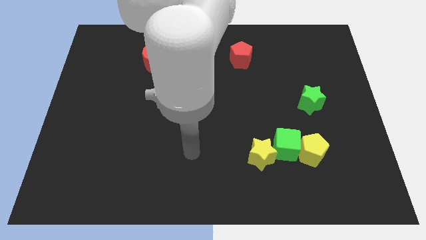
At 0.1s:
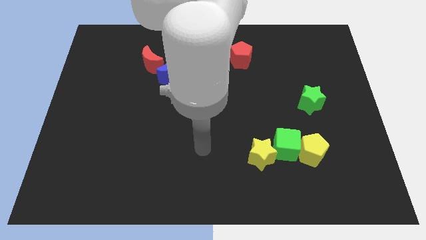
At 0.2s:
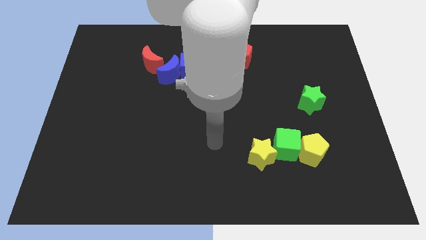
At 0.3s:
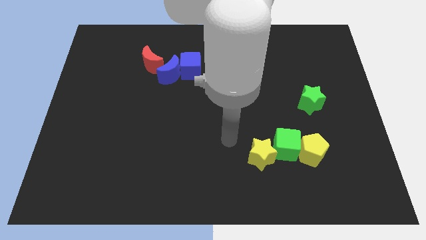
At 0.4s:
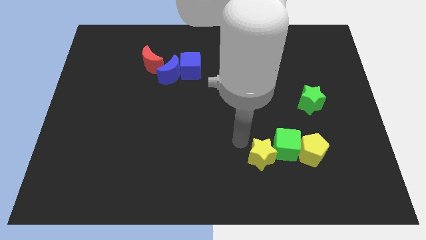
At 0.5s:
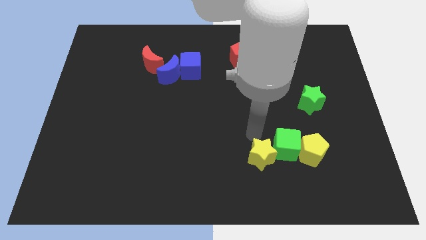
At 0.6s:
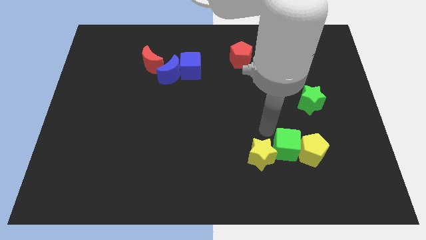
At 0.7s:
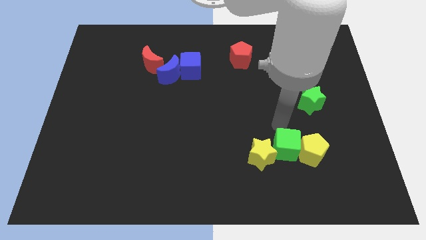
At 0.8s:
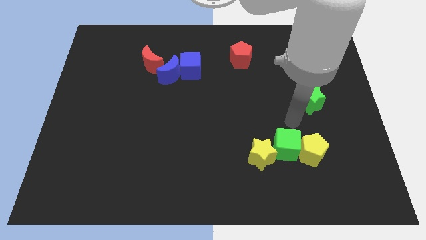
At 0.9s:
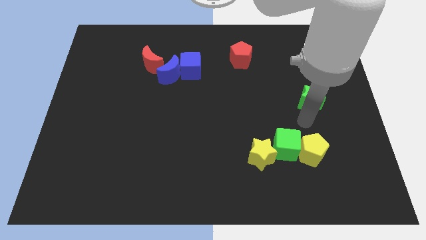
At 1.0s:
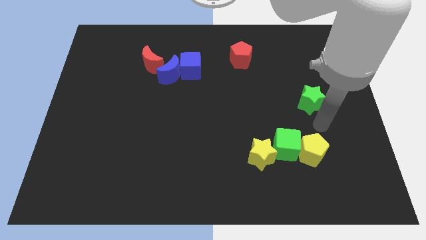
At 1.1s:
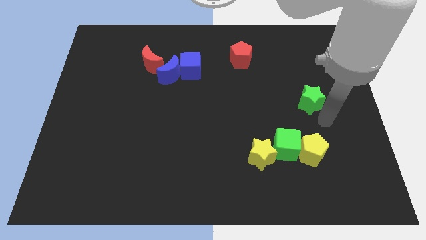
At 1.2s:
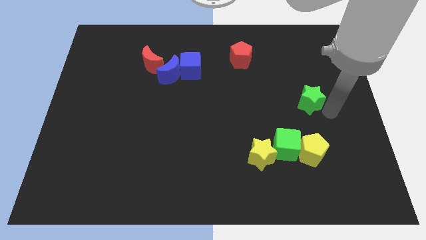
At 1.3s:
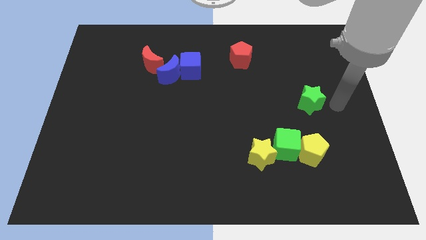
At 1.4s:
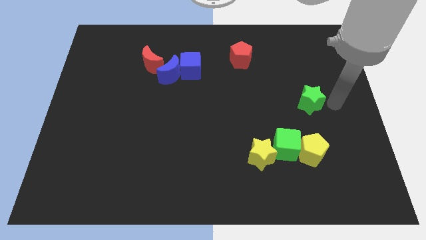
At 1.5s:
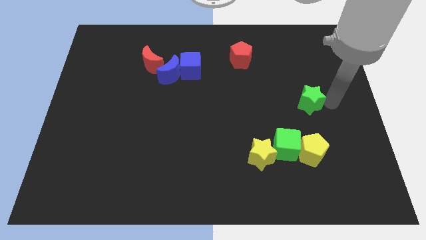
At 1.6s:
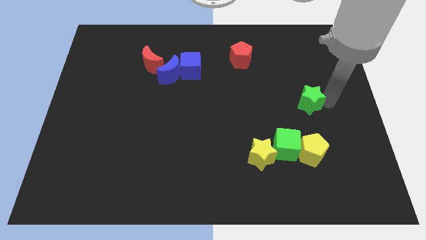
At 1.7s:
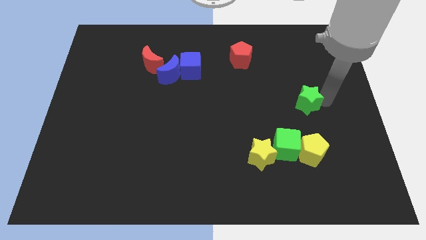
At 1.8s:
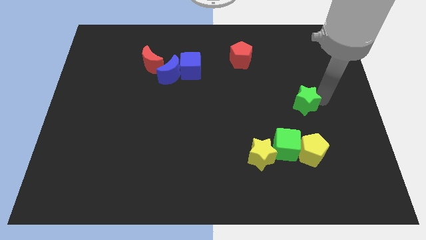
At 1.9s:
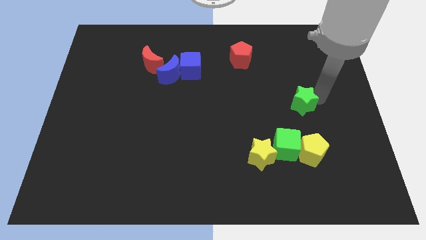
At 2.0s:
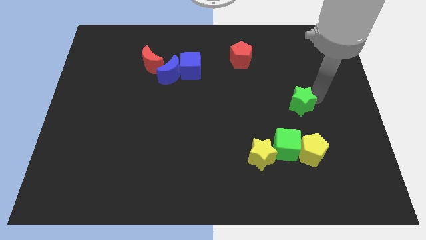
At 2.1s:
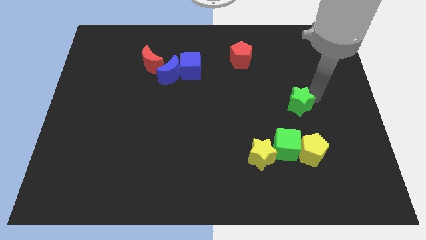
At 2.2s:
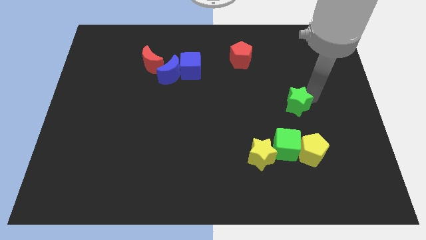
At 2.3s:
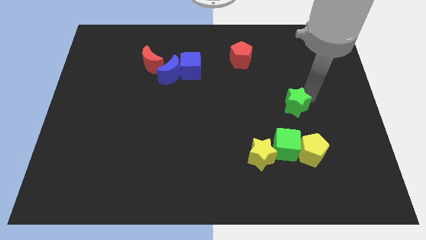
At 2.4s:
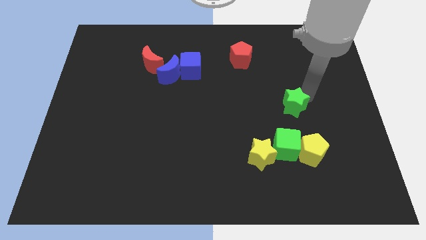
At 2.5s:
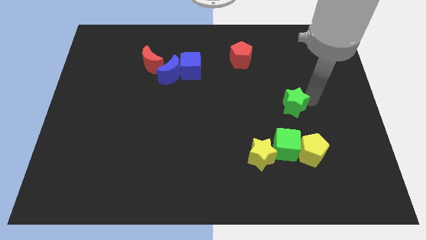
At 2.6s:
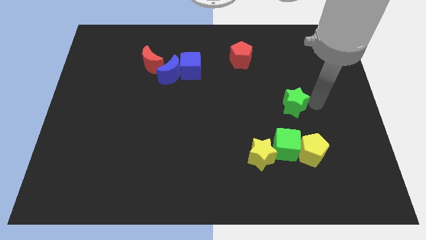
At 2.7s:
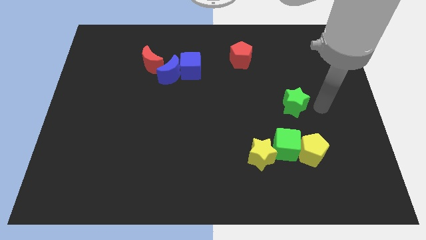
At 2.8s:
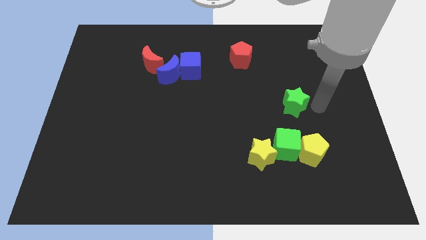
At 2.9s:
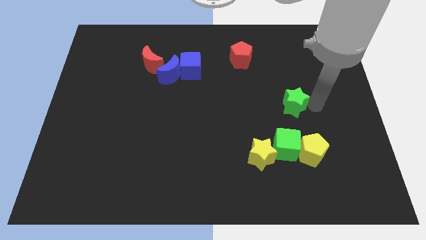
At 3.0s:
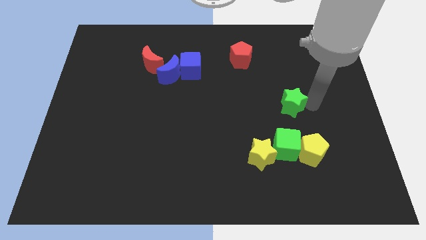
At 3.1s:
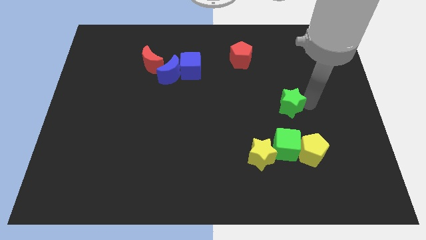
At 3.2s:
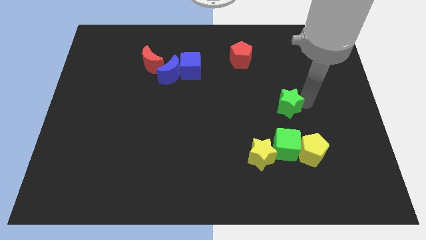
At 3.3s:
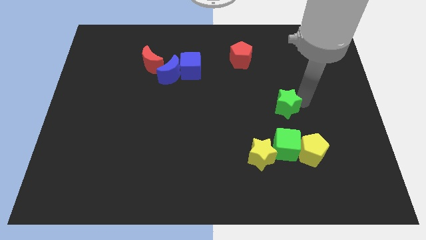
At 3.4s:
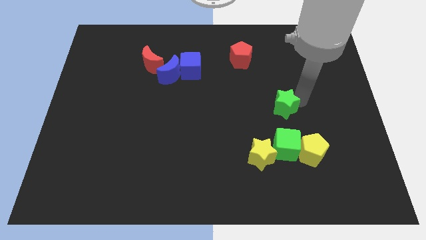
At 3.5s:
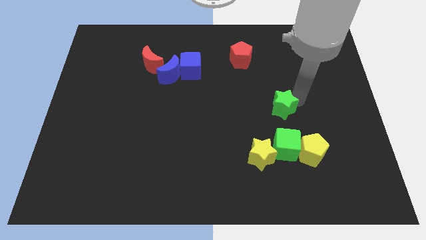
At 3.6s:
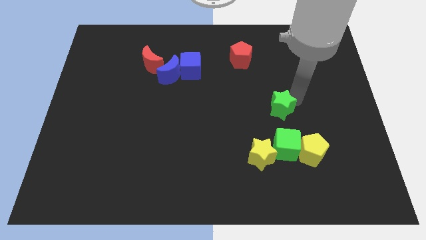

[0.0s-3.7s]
push the green star to the left somewhat

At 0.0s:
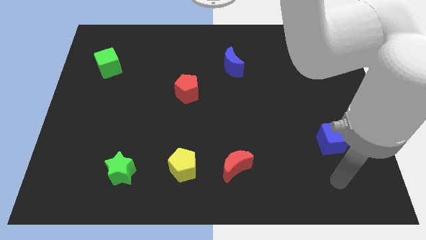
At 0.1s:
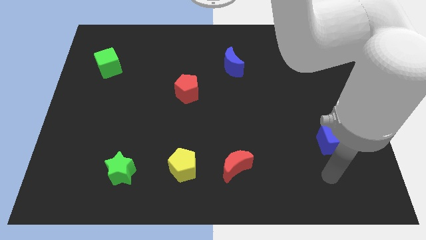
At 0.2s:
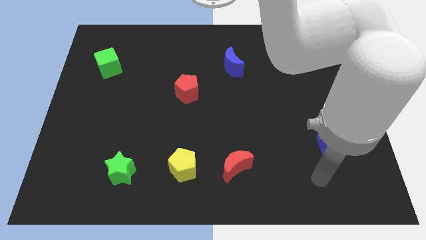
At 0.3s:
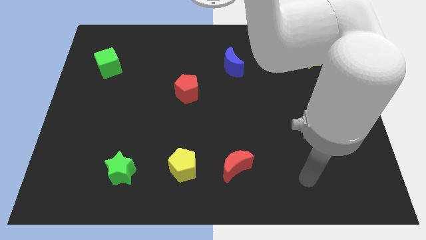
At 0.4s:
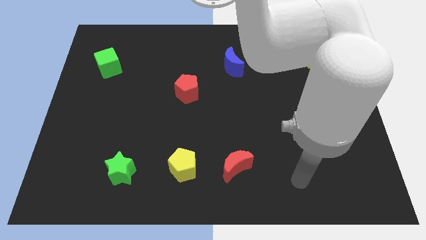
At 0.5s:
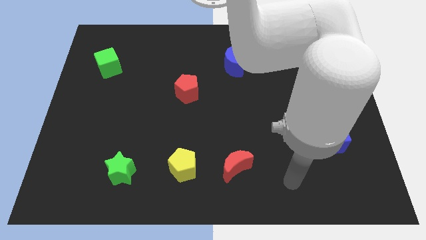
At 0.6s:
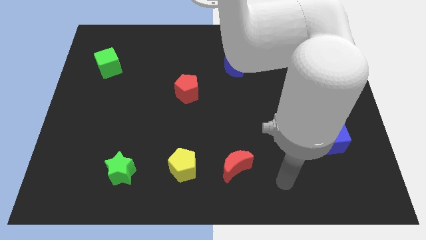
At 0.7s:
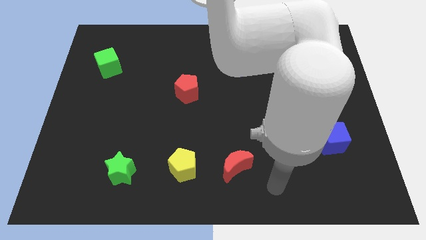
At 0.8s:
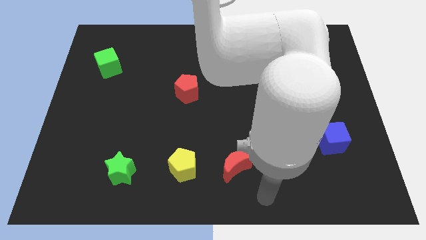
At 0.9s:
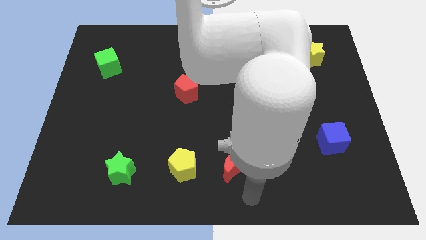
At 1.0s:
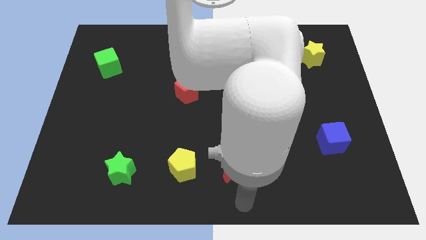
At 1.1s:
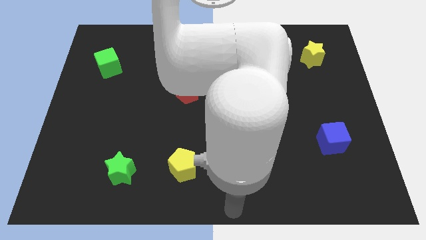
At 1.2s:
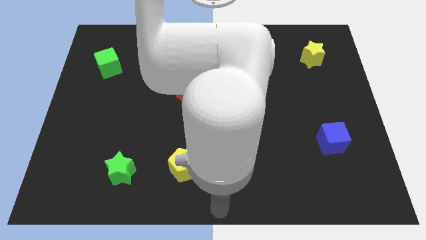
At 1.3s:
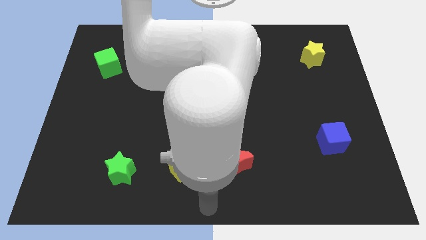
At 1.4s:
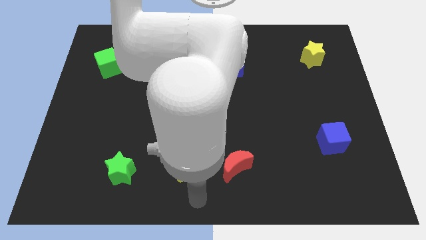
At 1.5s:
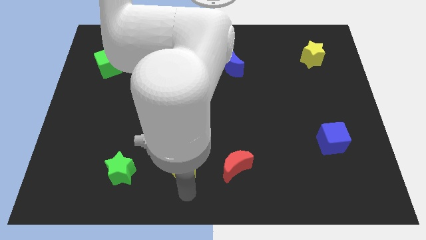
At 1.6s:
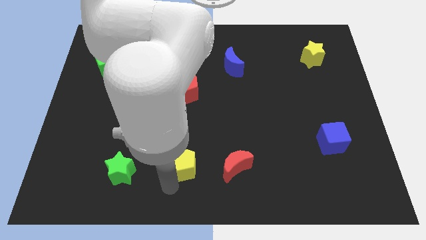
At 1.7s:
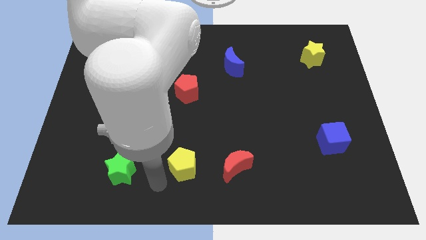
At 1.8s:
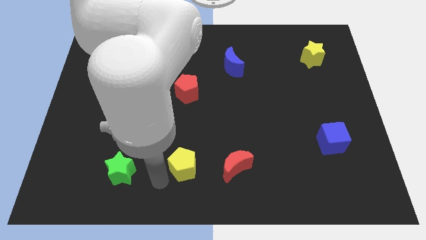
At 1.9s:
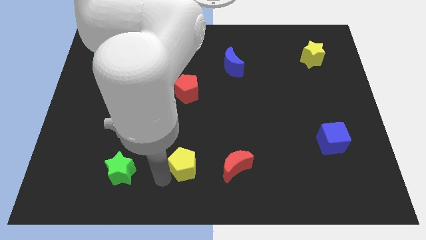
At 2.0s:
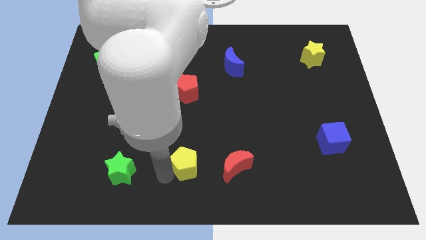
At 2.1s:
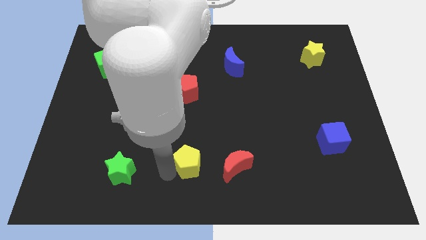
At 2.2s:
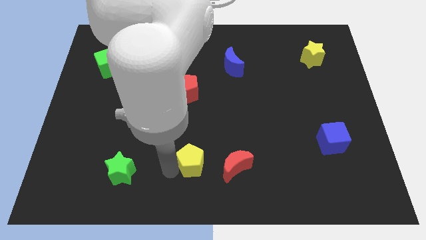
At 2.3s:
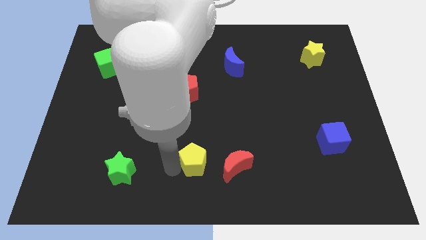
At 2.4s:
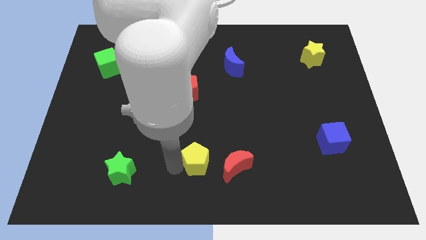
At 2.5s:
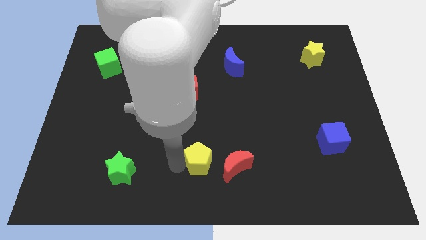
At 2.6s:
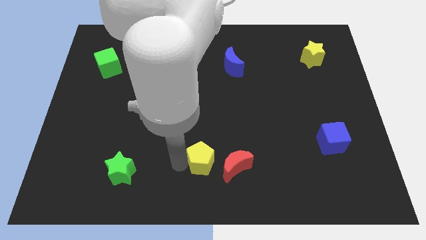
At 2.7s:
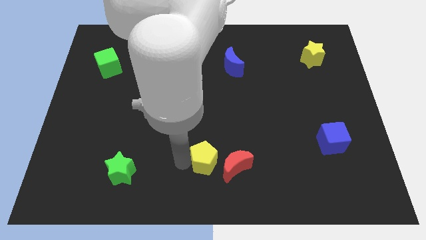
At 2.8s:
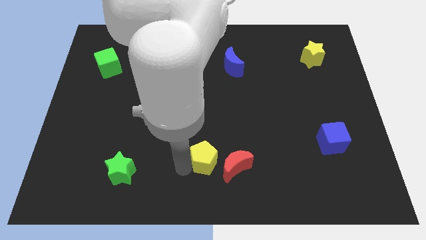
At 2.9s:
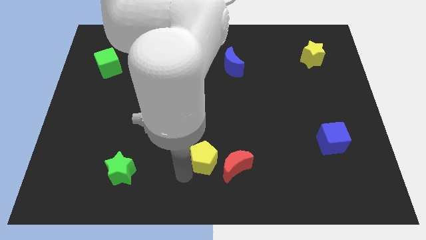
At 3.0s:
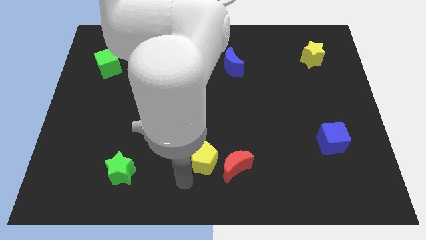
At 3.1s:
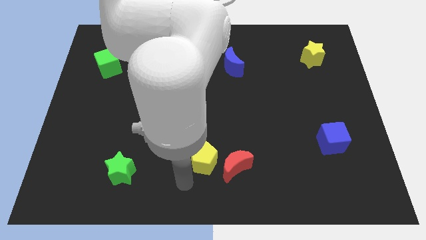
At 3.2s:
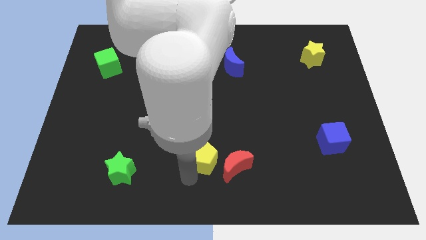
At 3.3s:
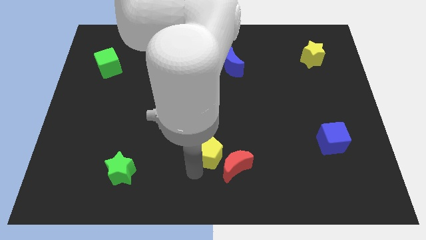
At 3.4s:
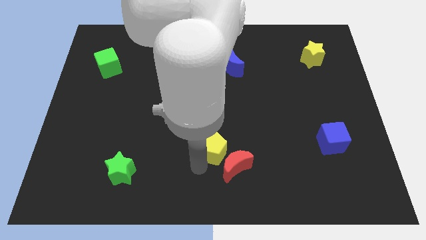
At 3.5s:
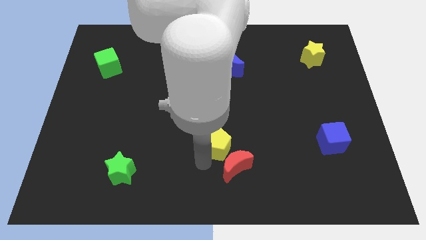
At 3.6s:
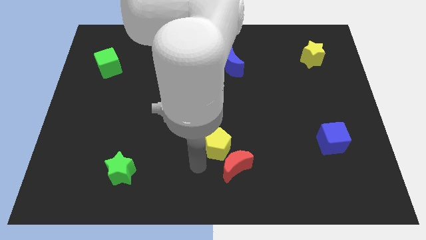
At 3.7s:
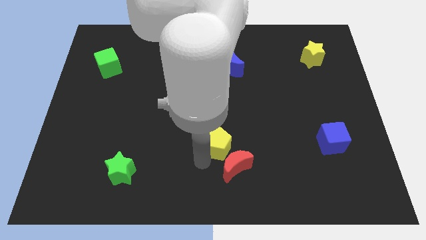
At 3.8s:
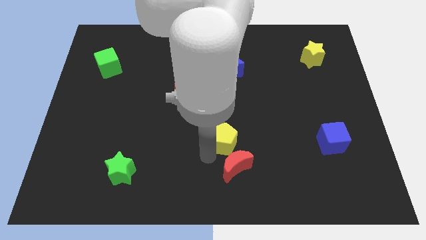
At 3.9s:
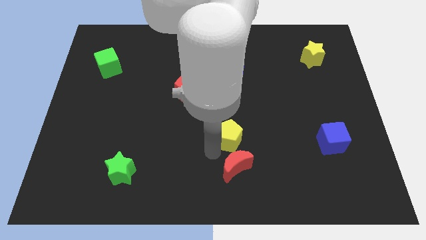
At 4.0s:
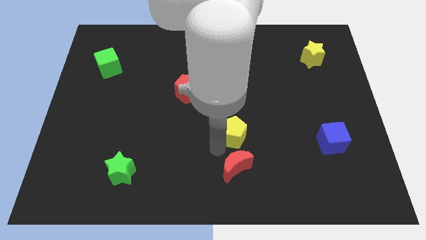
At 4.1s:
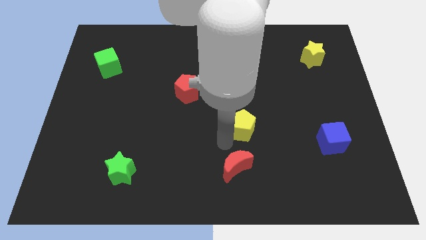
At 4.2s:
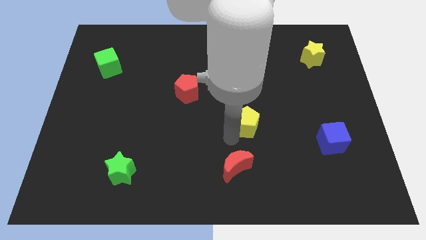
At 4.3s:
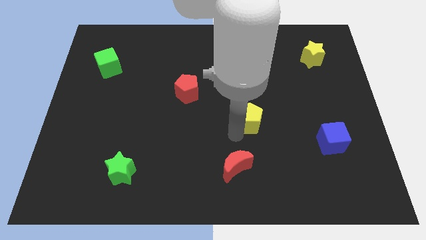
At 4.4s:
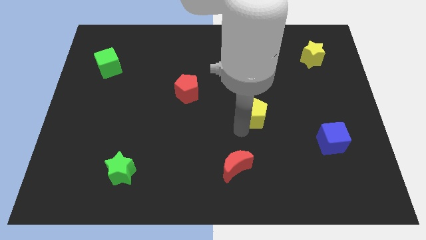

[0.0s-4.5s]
move the yellow pentagon up and then to the right
